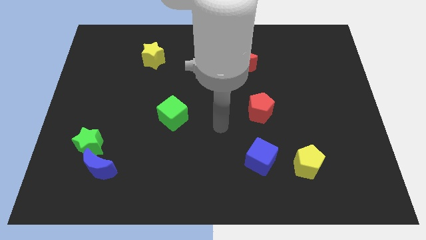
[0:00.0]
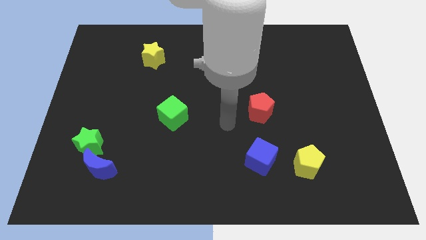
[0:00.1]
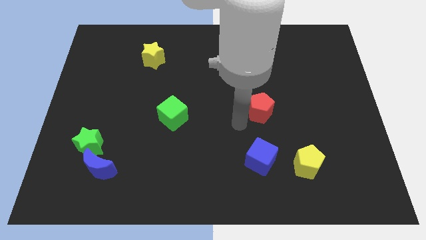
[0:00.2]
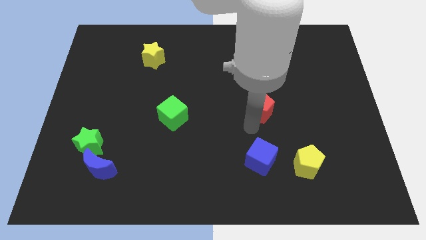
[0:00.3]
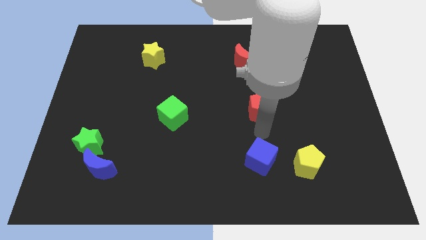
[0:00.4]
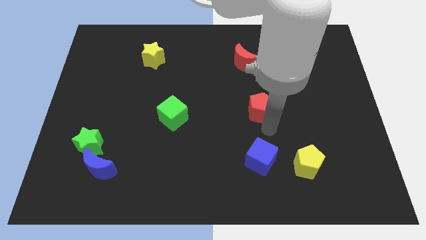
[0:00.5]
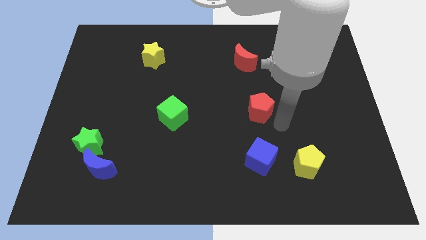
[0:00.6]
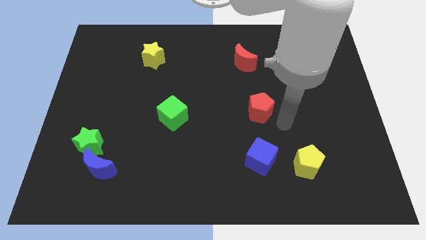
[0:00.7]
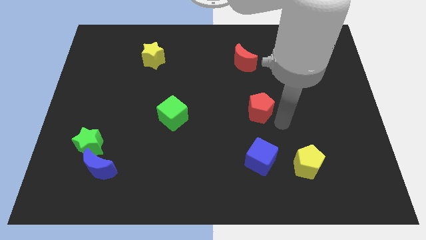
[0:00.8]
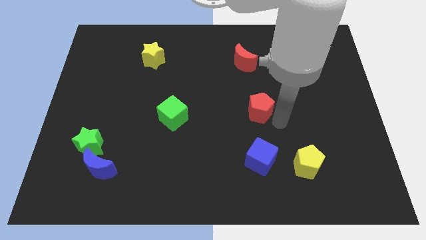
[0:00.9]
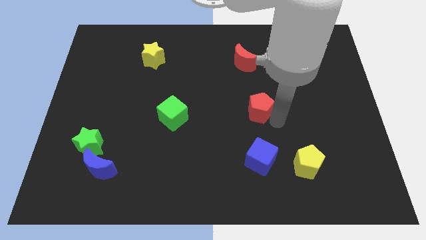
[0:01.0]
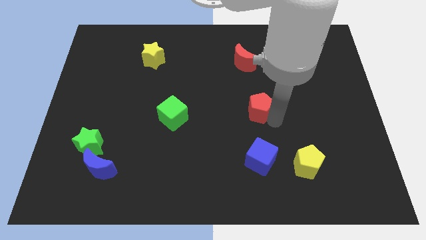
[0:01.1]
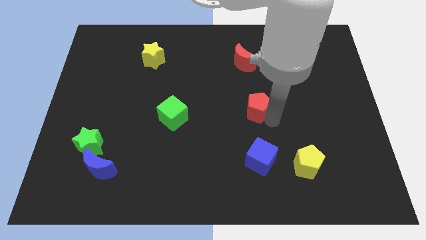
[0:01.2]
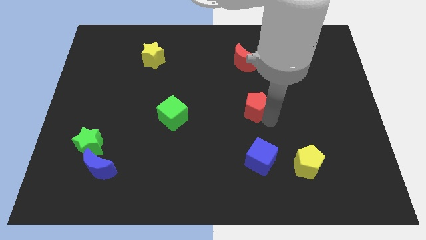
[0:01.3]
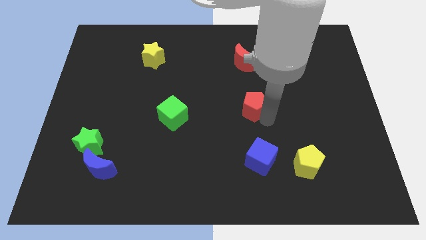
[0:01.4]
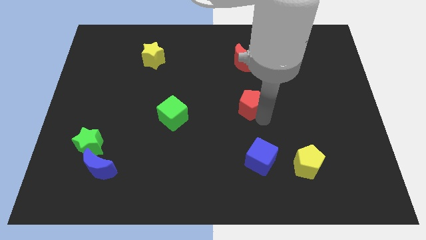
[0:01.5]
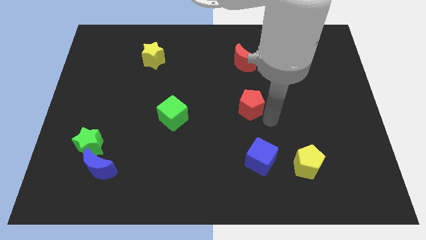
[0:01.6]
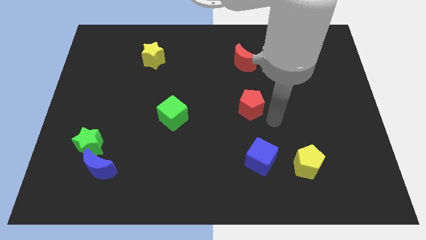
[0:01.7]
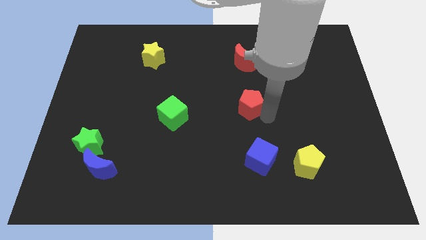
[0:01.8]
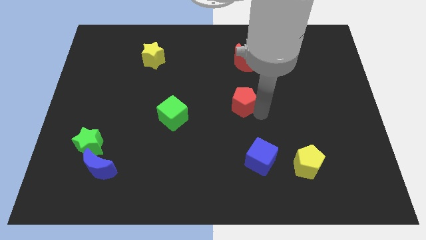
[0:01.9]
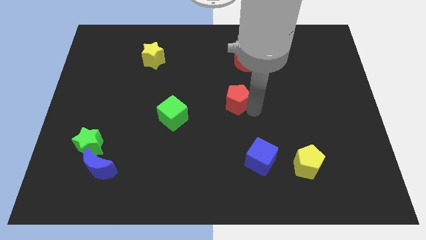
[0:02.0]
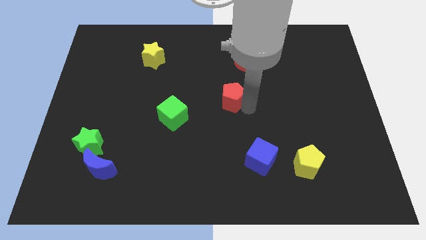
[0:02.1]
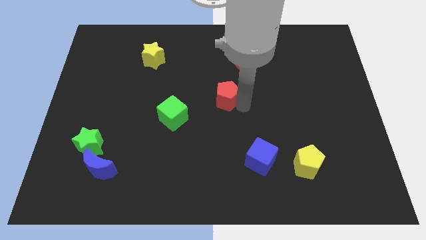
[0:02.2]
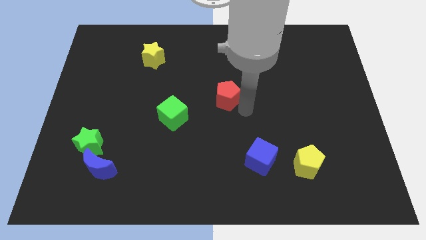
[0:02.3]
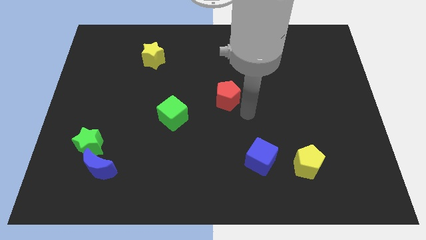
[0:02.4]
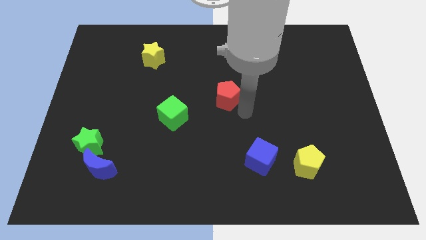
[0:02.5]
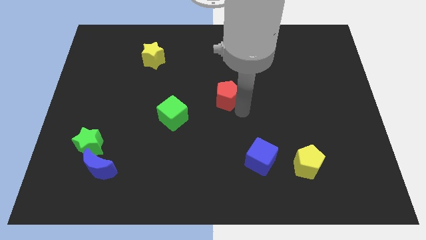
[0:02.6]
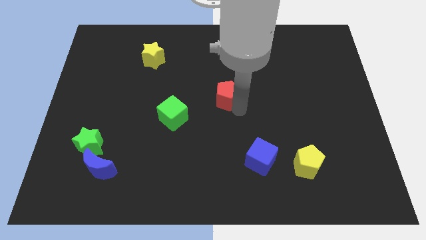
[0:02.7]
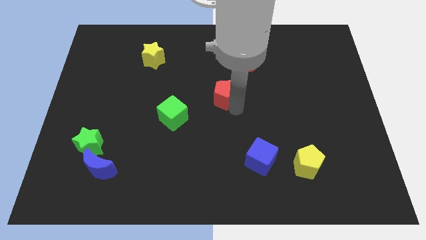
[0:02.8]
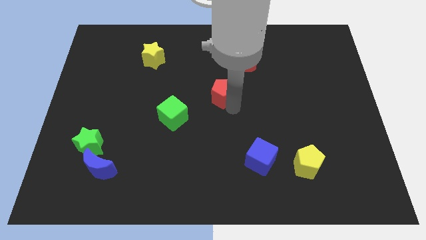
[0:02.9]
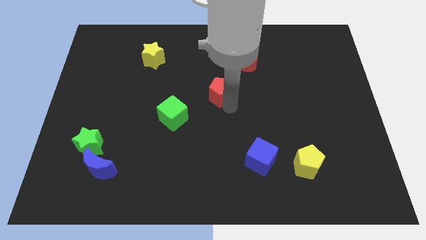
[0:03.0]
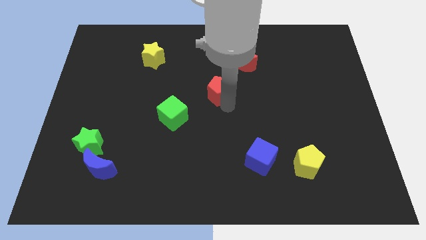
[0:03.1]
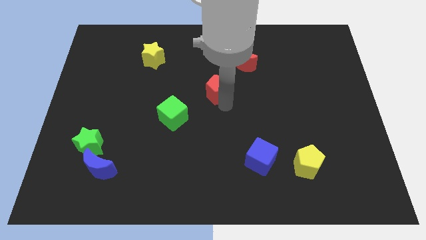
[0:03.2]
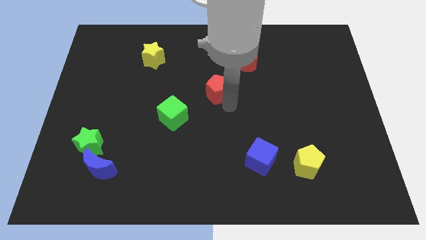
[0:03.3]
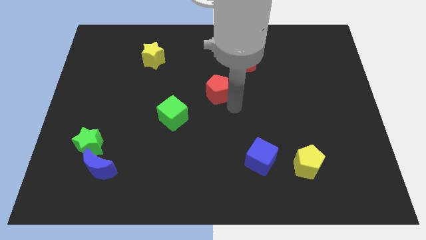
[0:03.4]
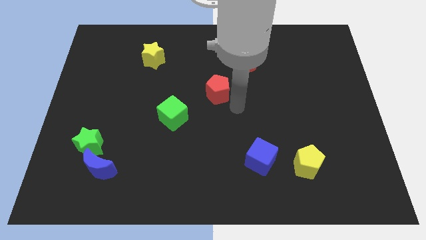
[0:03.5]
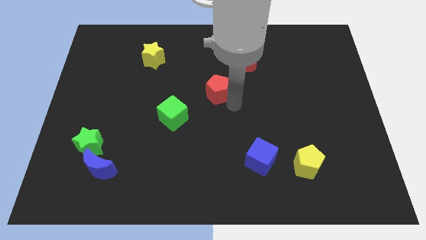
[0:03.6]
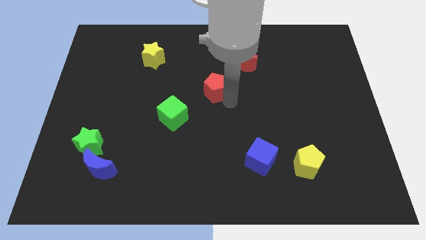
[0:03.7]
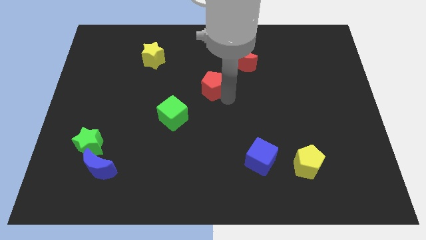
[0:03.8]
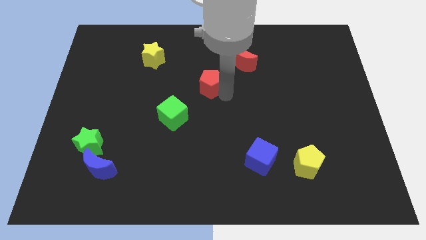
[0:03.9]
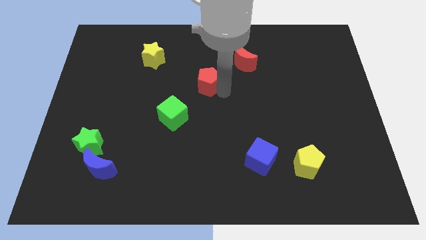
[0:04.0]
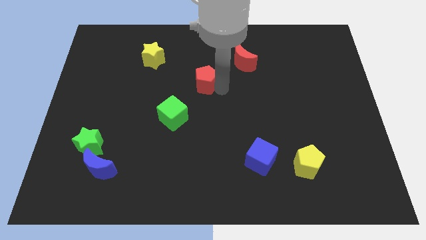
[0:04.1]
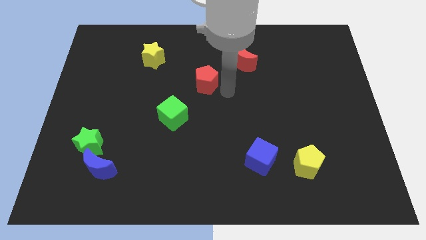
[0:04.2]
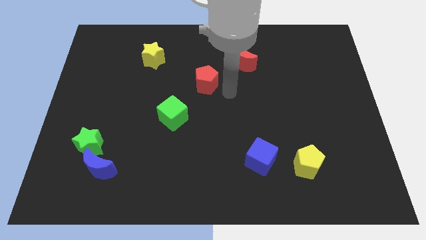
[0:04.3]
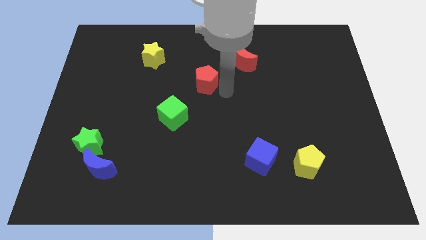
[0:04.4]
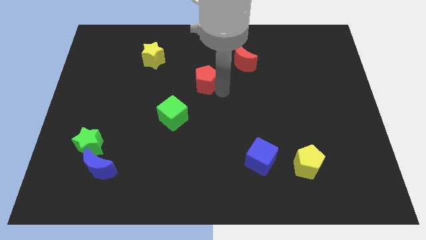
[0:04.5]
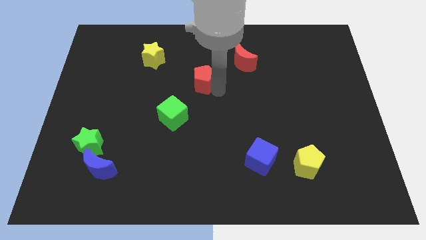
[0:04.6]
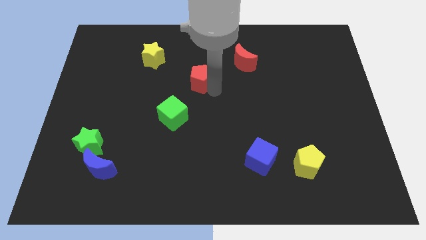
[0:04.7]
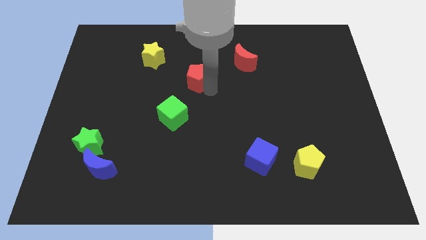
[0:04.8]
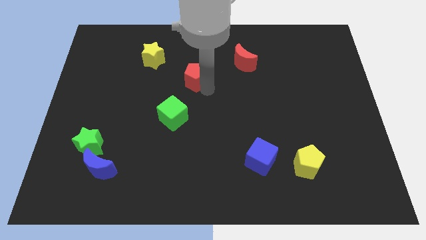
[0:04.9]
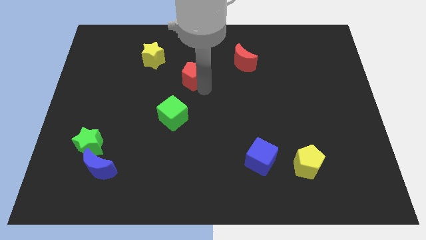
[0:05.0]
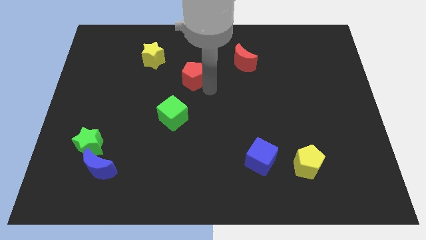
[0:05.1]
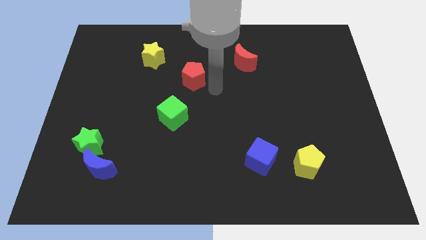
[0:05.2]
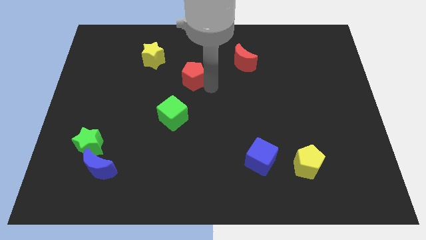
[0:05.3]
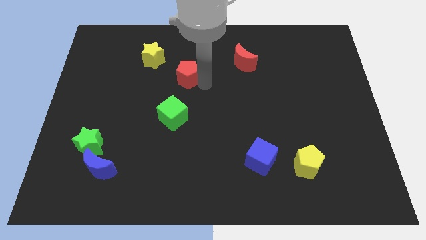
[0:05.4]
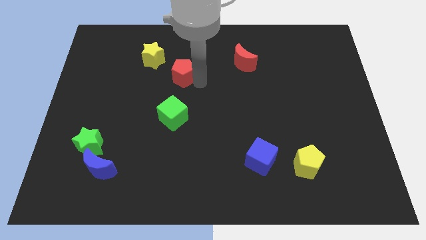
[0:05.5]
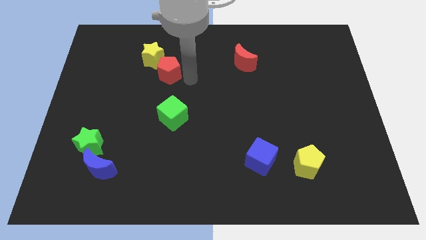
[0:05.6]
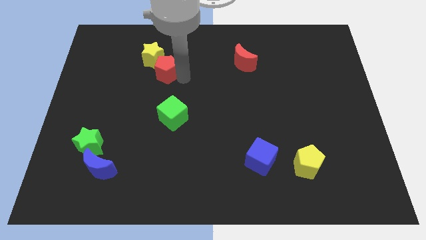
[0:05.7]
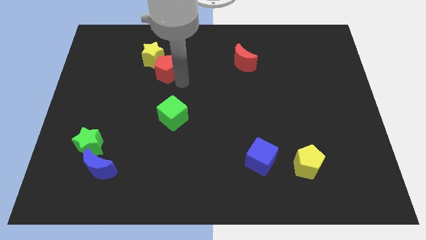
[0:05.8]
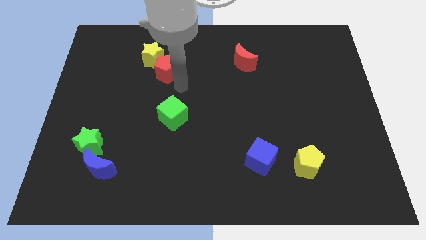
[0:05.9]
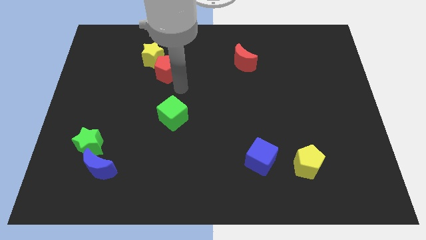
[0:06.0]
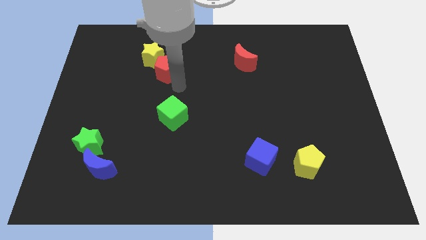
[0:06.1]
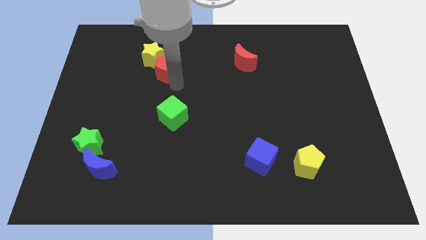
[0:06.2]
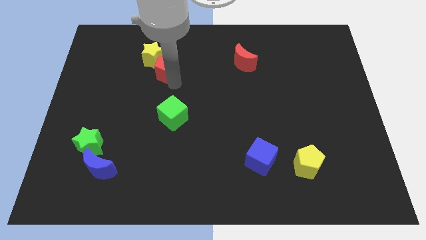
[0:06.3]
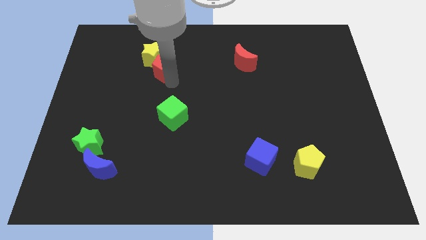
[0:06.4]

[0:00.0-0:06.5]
put the red pentagon to the yellow star

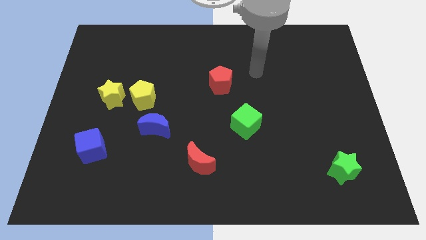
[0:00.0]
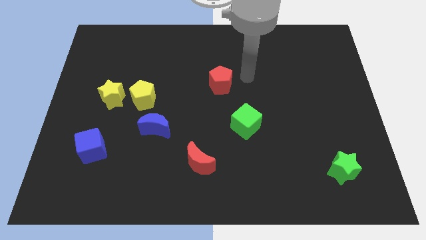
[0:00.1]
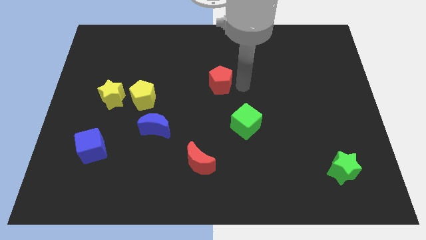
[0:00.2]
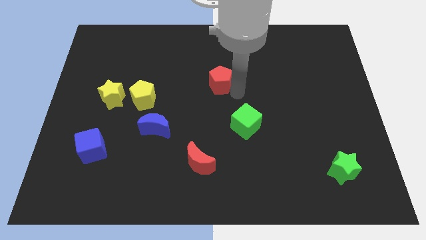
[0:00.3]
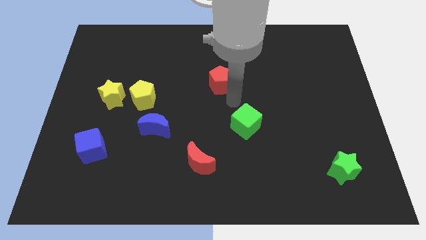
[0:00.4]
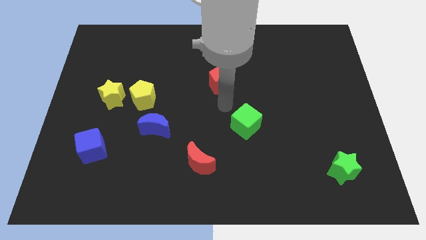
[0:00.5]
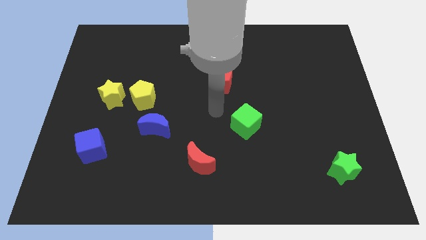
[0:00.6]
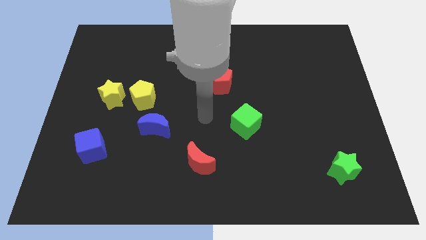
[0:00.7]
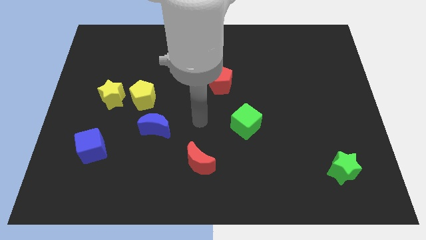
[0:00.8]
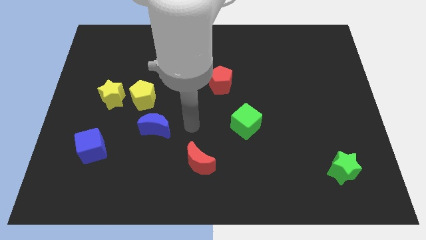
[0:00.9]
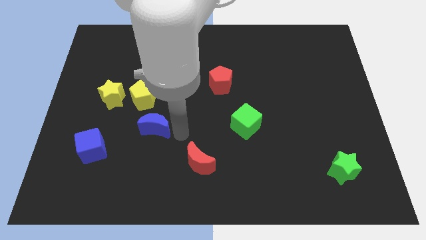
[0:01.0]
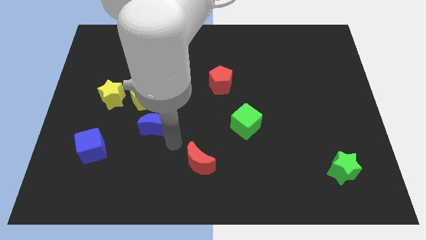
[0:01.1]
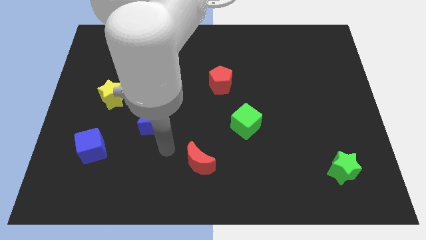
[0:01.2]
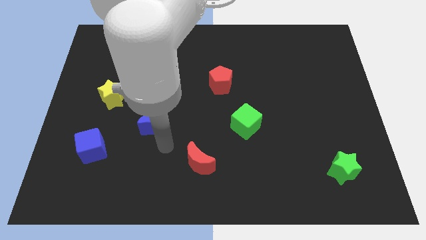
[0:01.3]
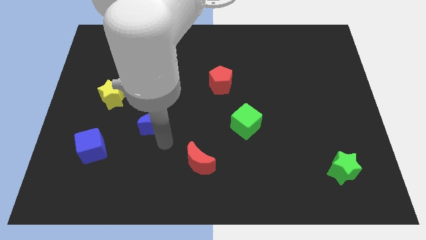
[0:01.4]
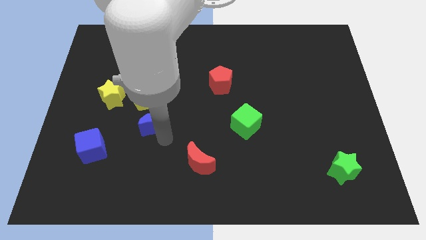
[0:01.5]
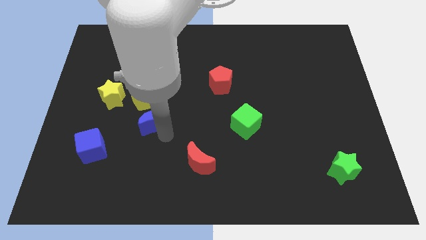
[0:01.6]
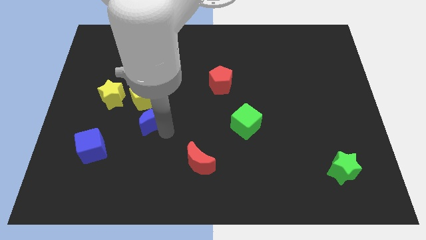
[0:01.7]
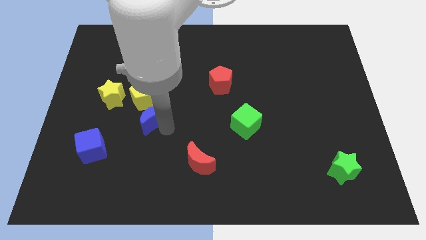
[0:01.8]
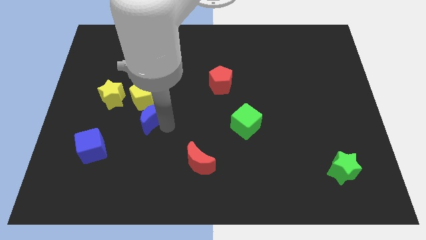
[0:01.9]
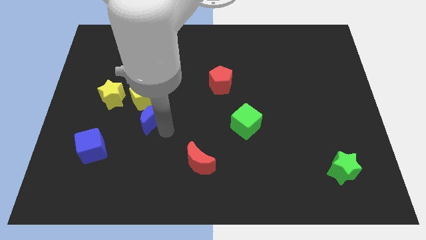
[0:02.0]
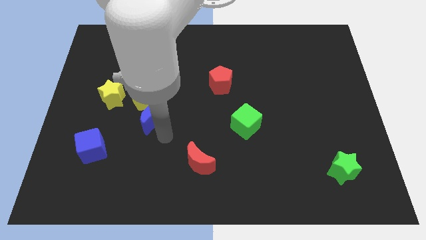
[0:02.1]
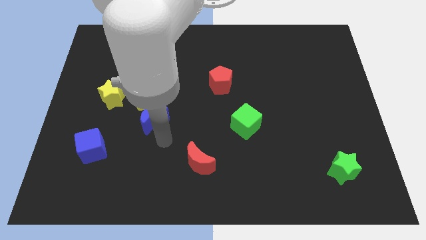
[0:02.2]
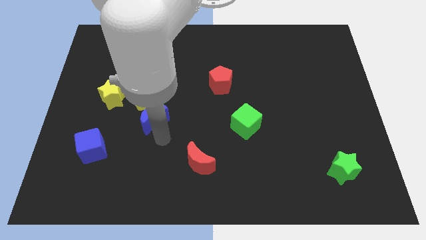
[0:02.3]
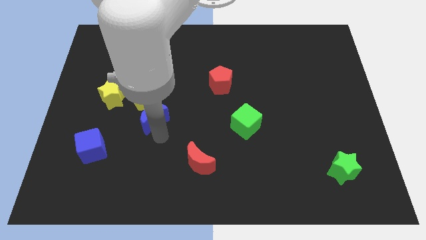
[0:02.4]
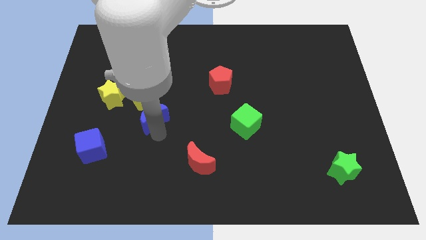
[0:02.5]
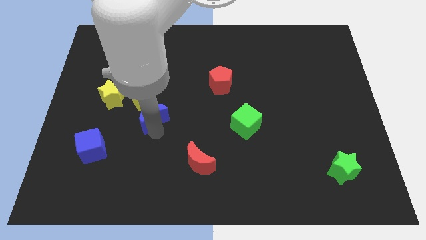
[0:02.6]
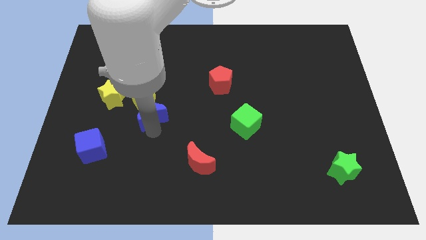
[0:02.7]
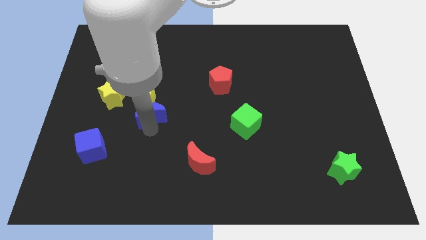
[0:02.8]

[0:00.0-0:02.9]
put the blue moon towards the yellow pentagon
